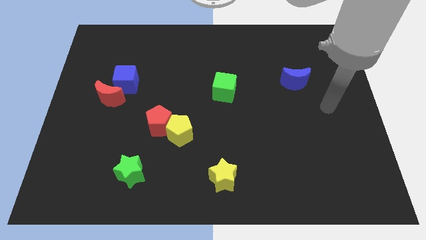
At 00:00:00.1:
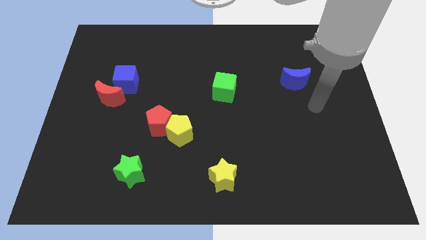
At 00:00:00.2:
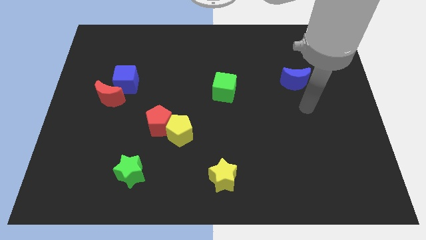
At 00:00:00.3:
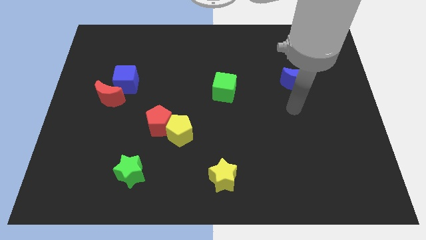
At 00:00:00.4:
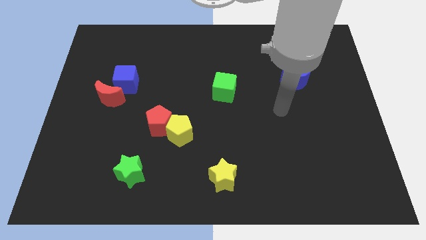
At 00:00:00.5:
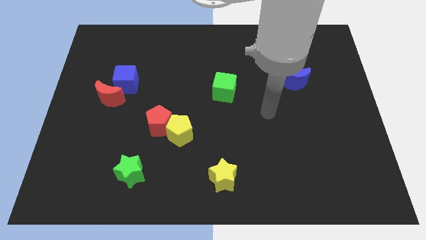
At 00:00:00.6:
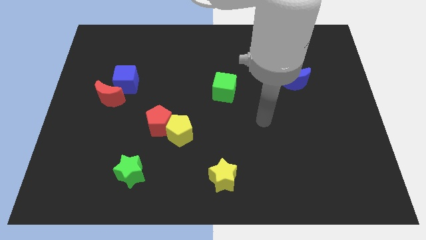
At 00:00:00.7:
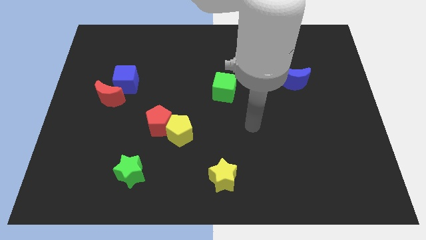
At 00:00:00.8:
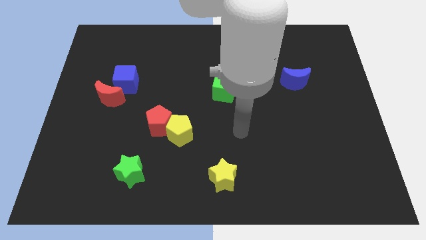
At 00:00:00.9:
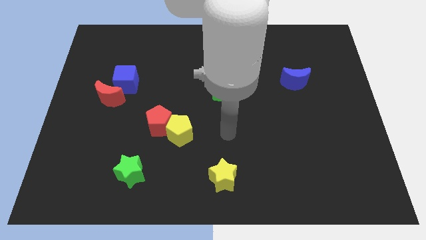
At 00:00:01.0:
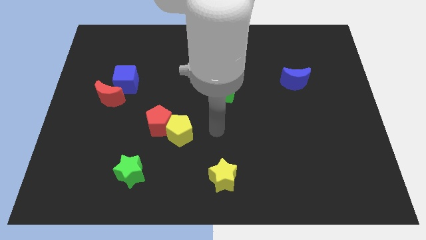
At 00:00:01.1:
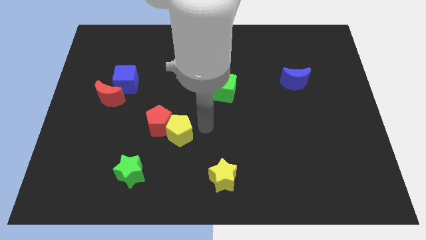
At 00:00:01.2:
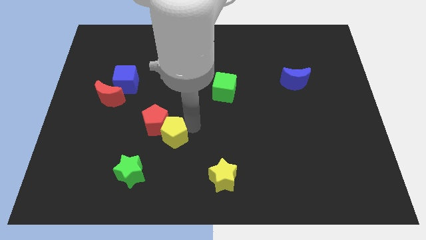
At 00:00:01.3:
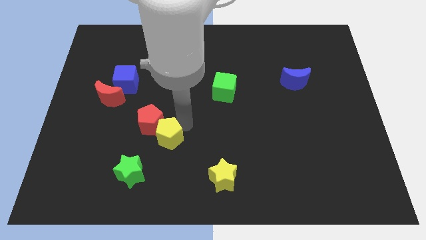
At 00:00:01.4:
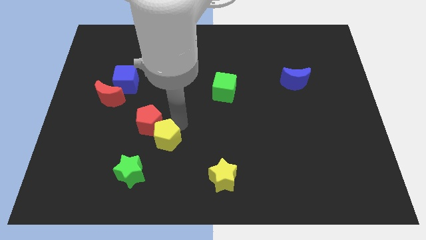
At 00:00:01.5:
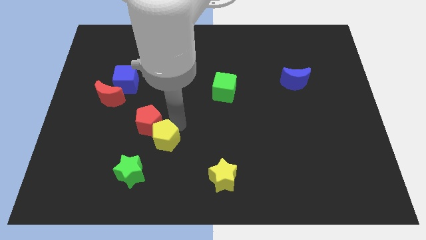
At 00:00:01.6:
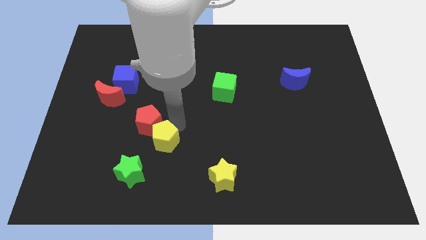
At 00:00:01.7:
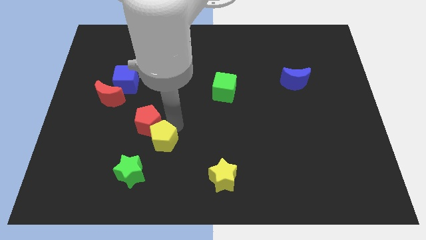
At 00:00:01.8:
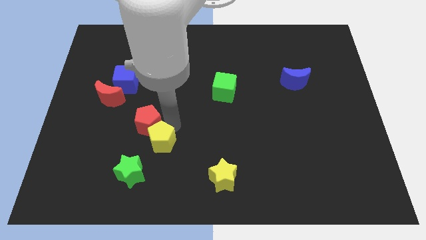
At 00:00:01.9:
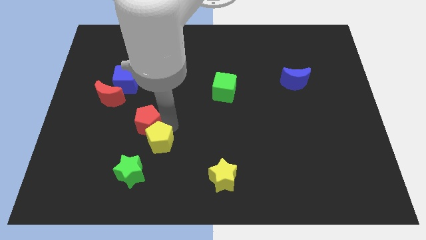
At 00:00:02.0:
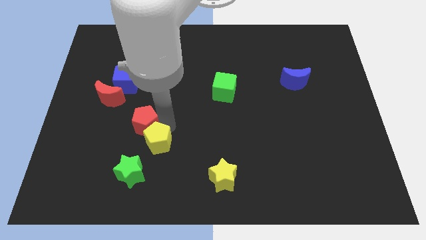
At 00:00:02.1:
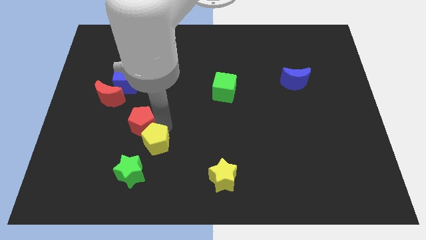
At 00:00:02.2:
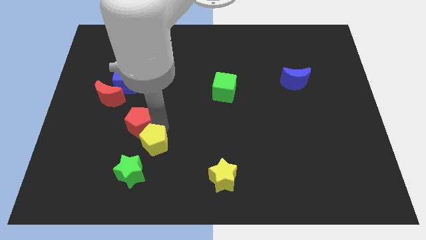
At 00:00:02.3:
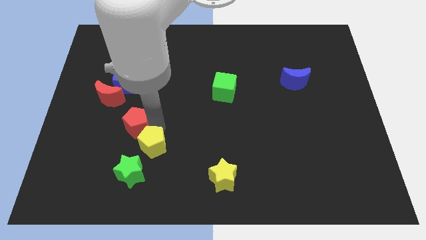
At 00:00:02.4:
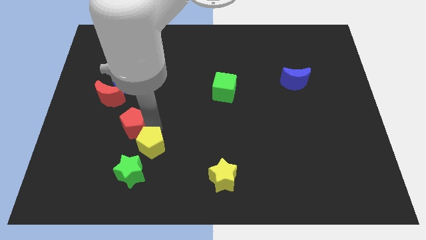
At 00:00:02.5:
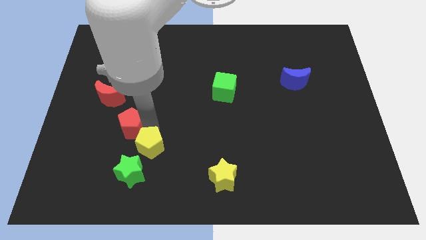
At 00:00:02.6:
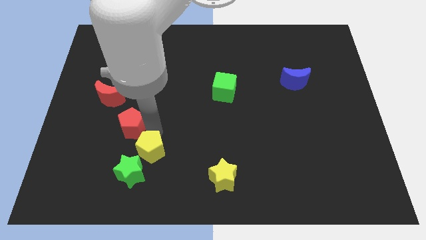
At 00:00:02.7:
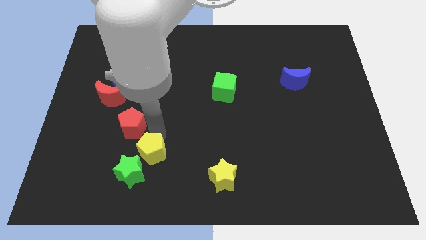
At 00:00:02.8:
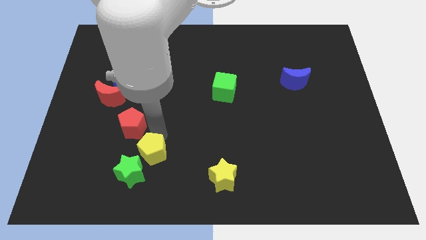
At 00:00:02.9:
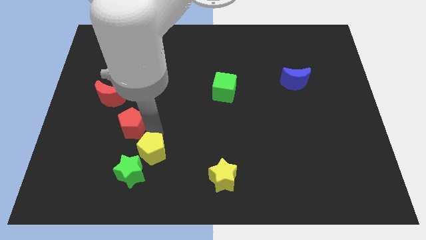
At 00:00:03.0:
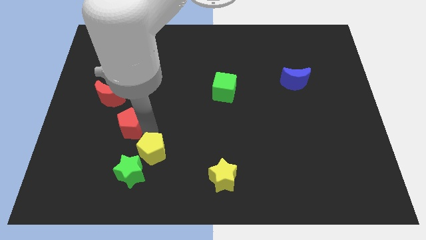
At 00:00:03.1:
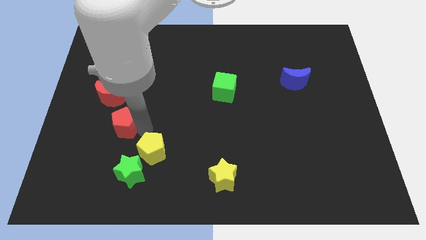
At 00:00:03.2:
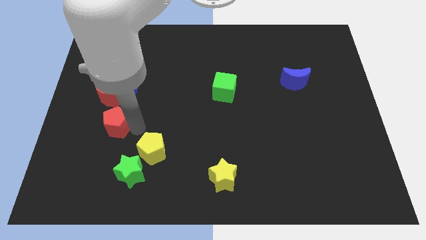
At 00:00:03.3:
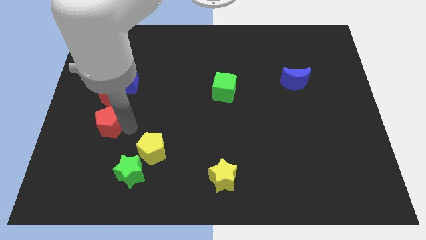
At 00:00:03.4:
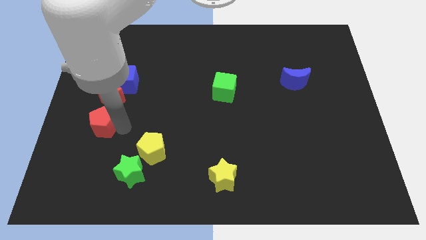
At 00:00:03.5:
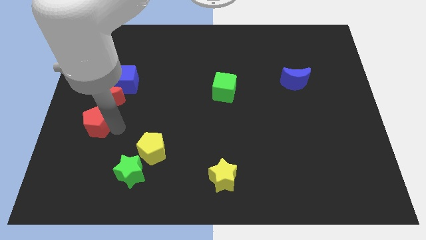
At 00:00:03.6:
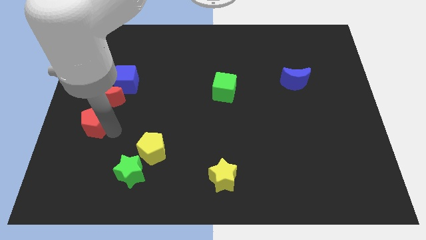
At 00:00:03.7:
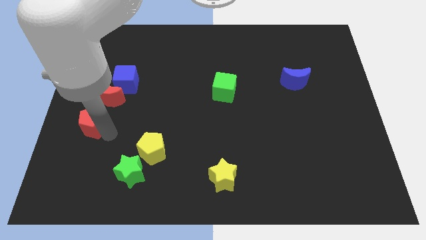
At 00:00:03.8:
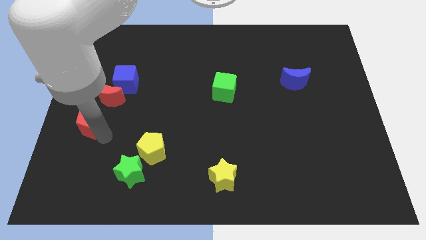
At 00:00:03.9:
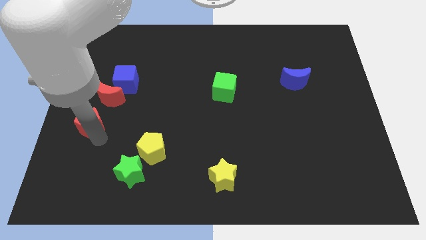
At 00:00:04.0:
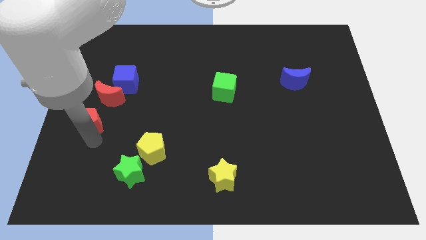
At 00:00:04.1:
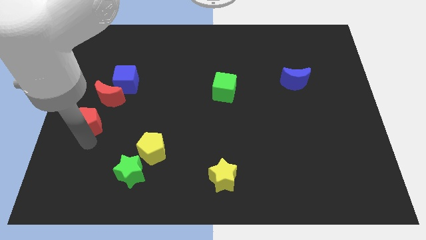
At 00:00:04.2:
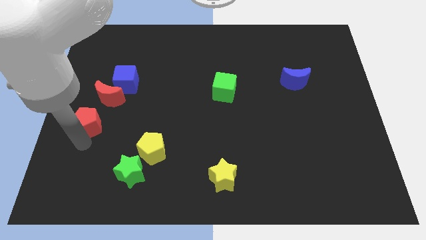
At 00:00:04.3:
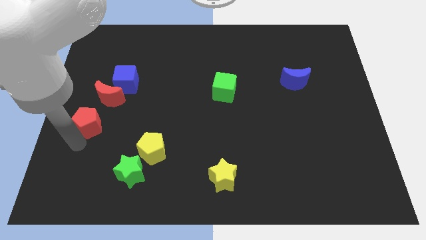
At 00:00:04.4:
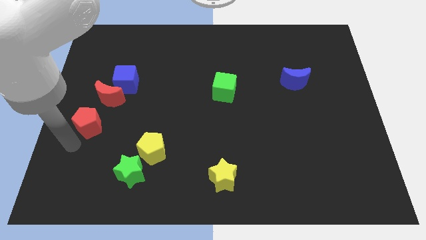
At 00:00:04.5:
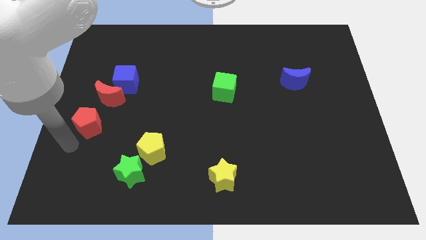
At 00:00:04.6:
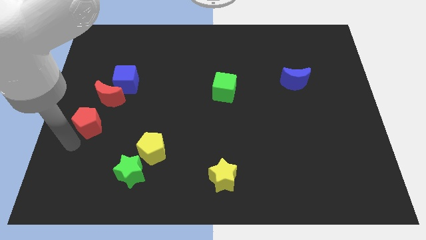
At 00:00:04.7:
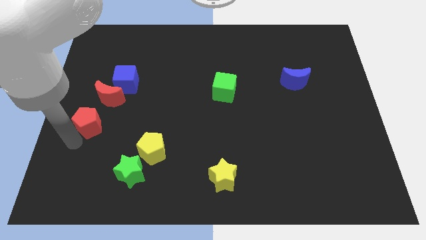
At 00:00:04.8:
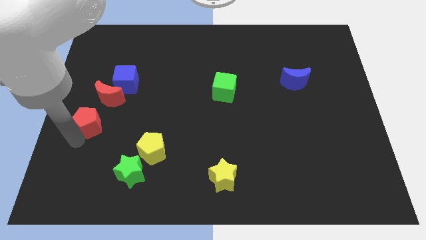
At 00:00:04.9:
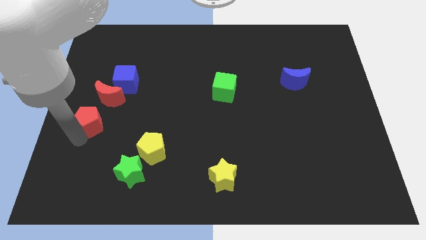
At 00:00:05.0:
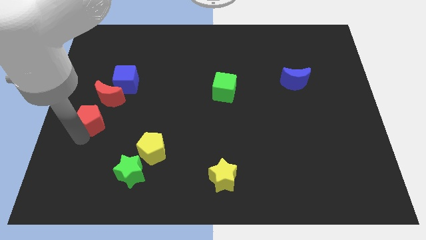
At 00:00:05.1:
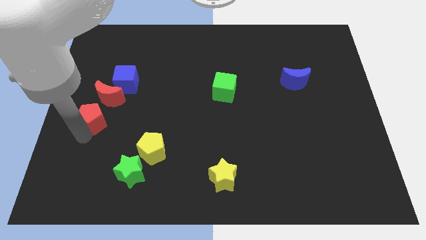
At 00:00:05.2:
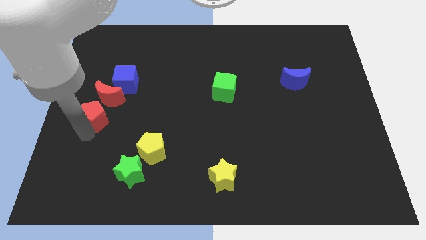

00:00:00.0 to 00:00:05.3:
slightly slide the red pentagon up and to the left diagonally

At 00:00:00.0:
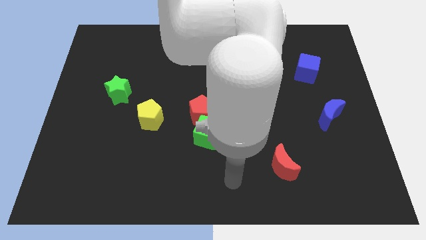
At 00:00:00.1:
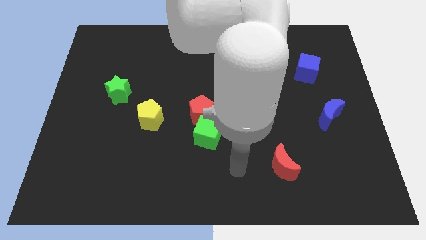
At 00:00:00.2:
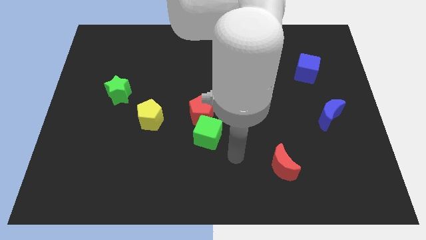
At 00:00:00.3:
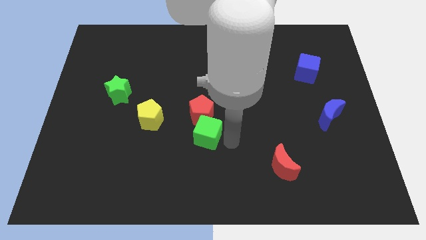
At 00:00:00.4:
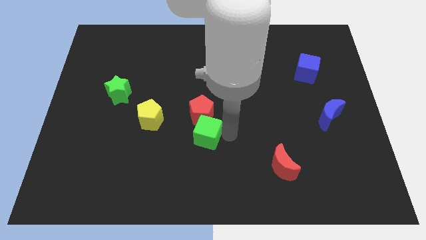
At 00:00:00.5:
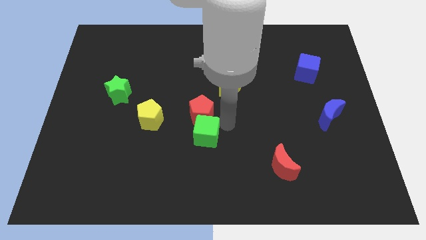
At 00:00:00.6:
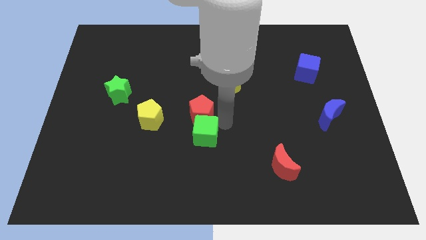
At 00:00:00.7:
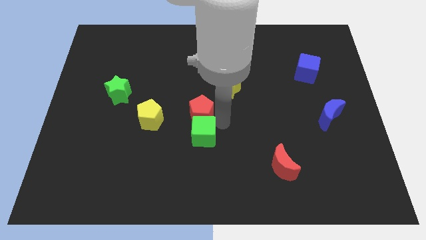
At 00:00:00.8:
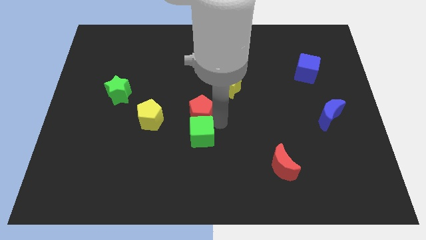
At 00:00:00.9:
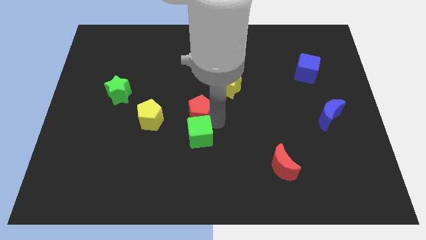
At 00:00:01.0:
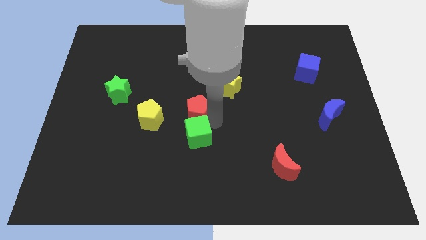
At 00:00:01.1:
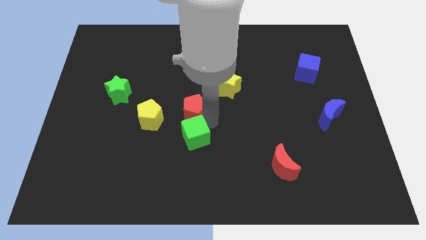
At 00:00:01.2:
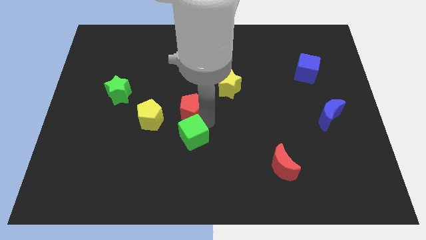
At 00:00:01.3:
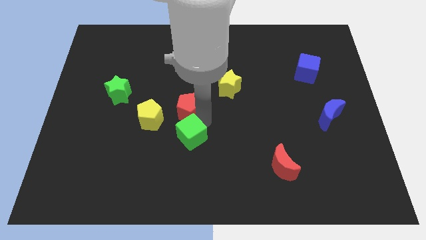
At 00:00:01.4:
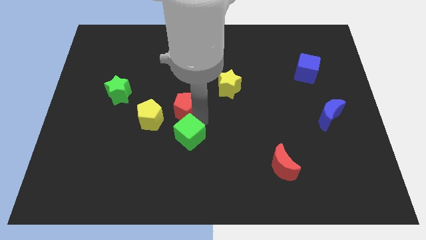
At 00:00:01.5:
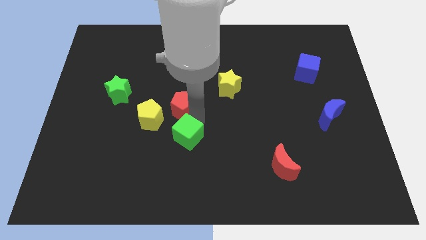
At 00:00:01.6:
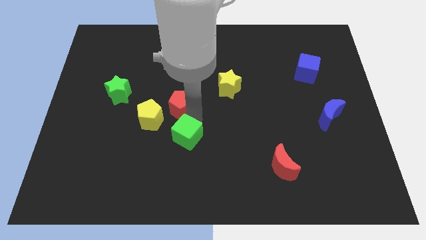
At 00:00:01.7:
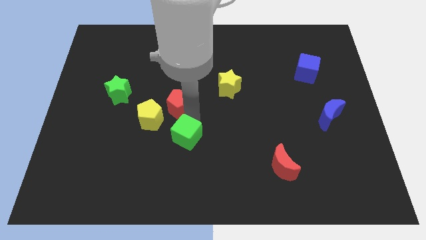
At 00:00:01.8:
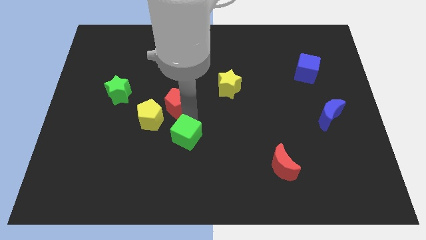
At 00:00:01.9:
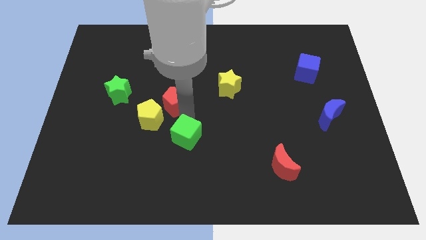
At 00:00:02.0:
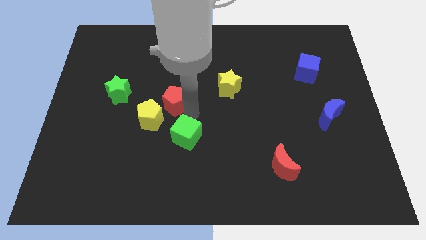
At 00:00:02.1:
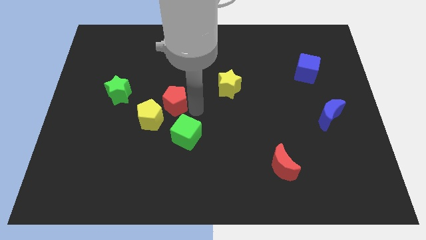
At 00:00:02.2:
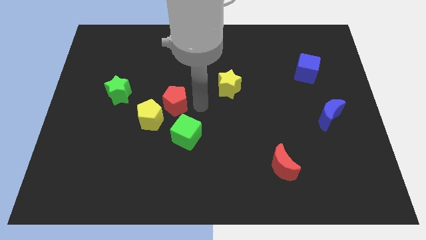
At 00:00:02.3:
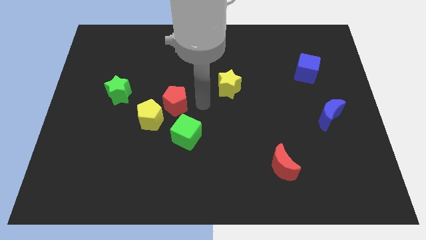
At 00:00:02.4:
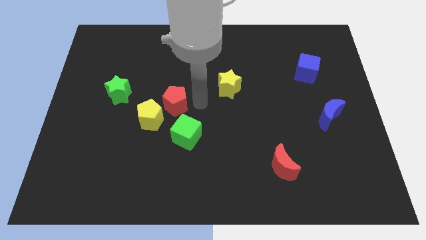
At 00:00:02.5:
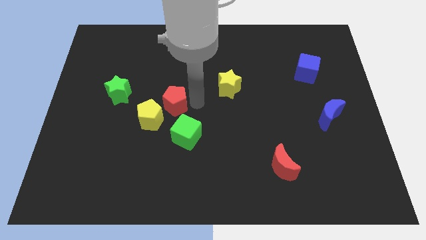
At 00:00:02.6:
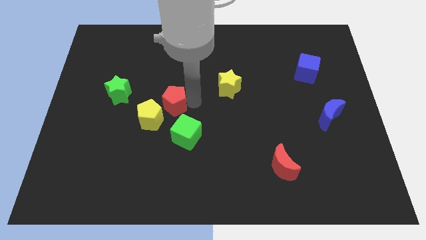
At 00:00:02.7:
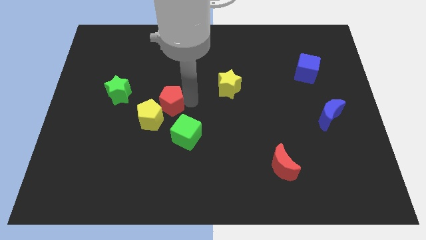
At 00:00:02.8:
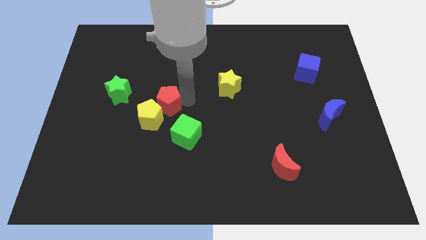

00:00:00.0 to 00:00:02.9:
slide the red pentagon a bit to the left
